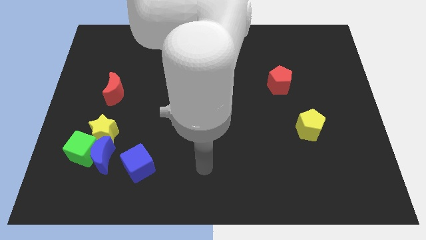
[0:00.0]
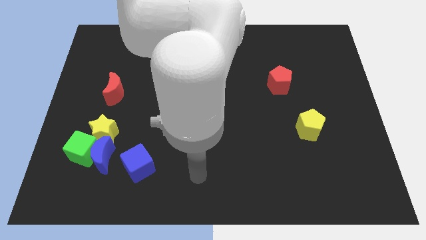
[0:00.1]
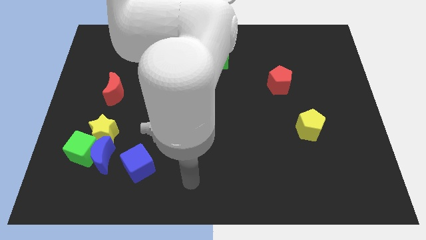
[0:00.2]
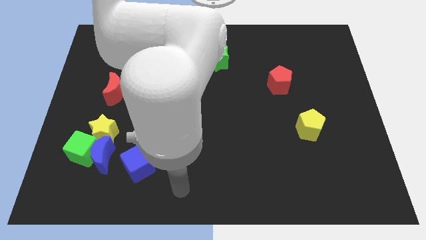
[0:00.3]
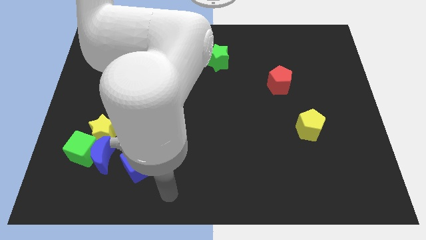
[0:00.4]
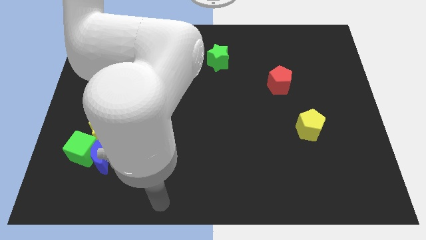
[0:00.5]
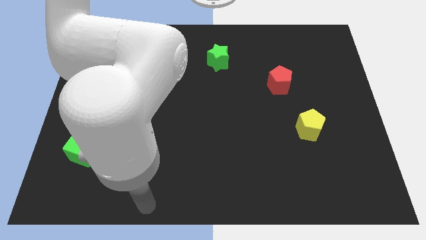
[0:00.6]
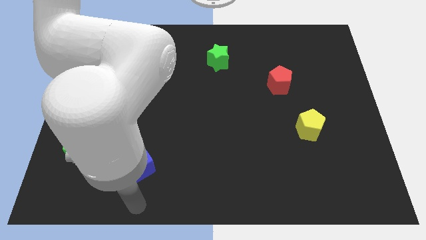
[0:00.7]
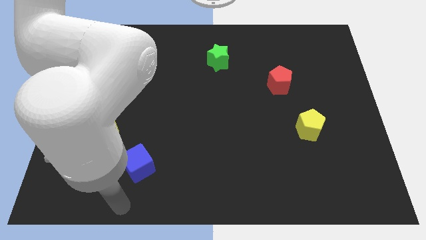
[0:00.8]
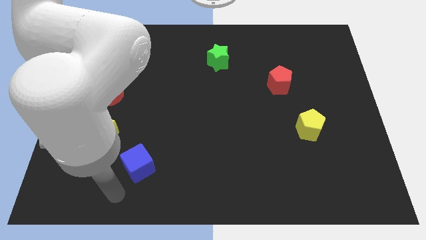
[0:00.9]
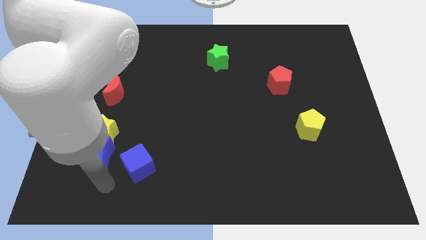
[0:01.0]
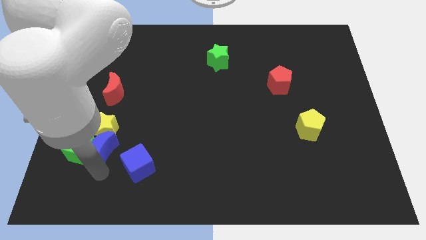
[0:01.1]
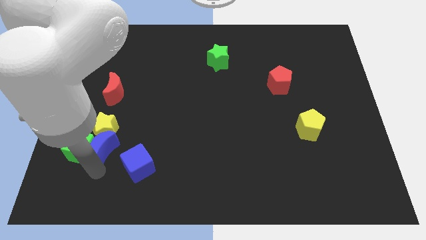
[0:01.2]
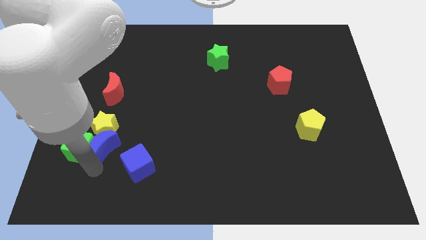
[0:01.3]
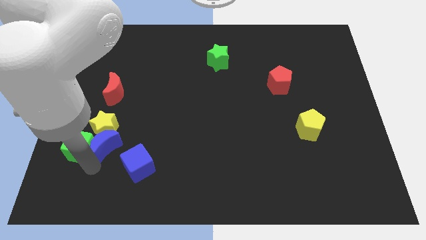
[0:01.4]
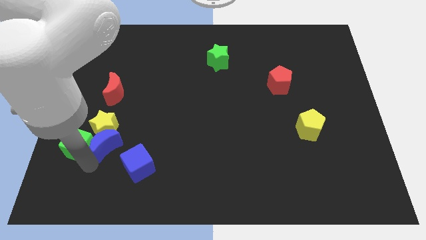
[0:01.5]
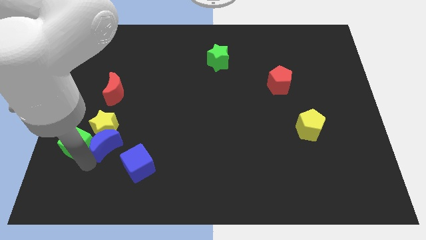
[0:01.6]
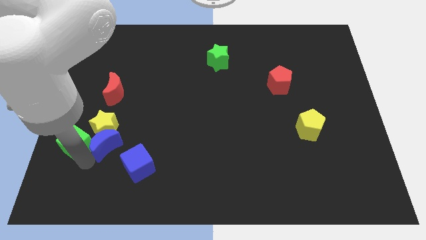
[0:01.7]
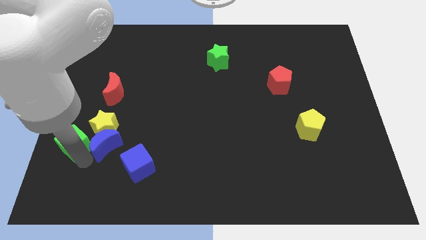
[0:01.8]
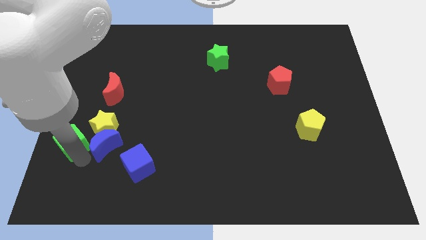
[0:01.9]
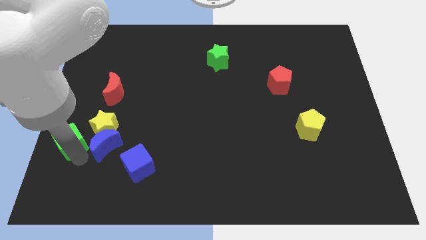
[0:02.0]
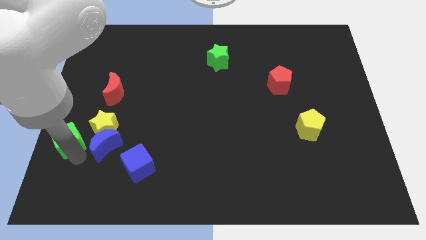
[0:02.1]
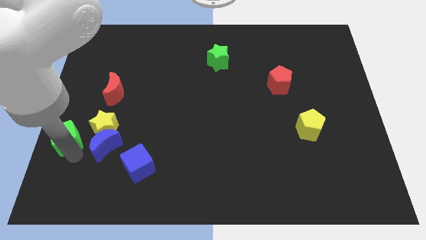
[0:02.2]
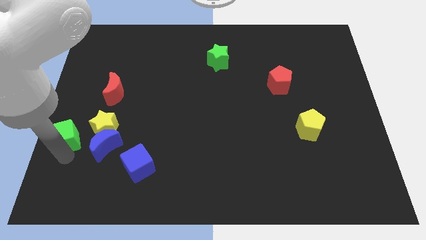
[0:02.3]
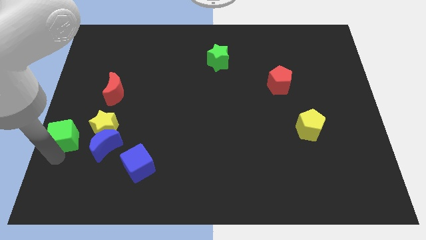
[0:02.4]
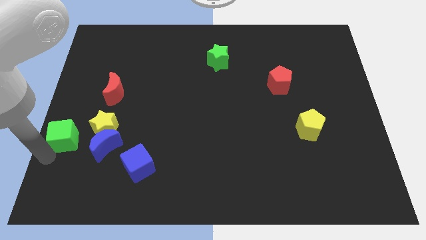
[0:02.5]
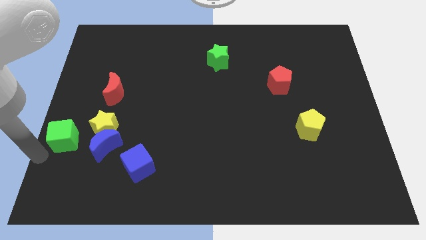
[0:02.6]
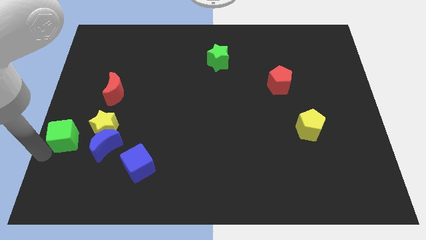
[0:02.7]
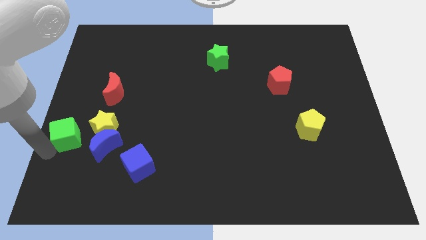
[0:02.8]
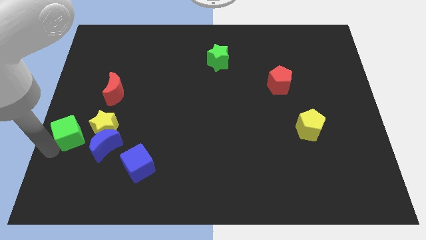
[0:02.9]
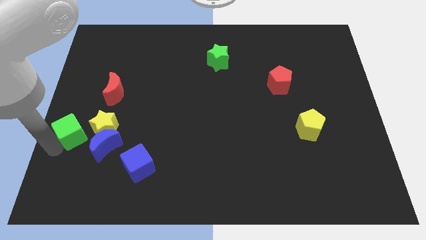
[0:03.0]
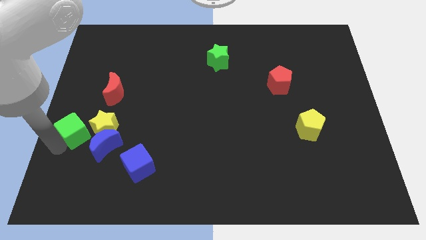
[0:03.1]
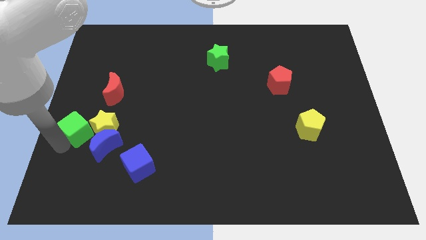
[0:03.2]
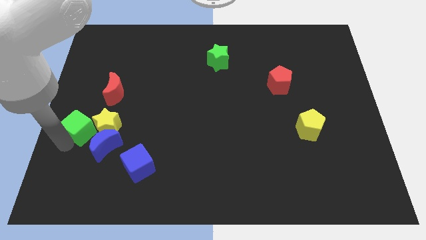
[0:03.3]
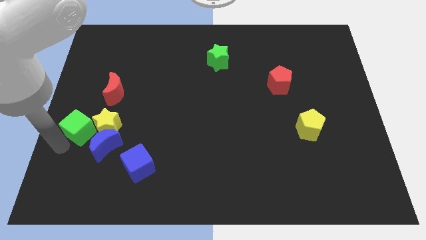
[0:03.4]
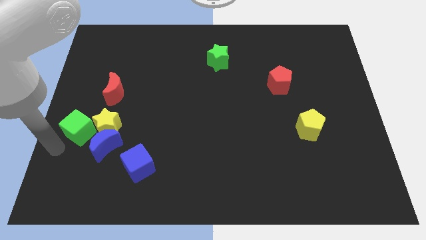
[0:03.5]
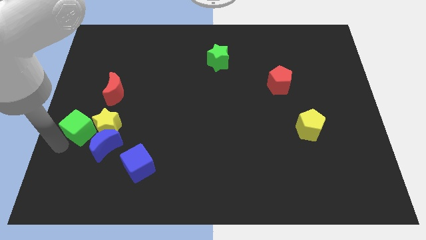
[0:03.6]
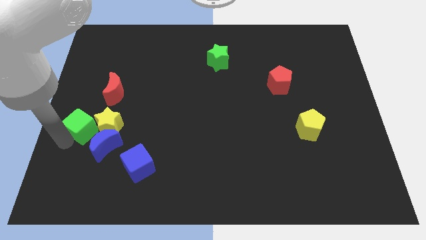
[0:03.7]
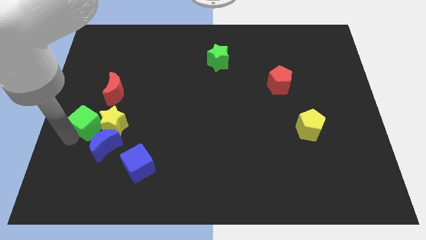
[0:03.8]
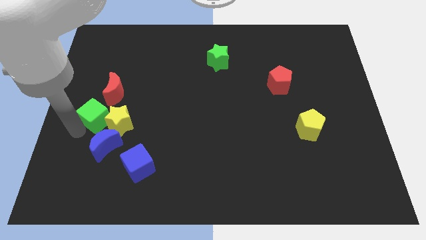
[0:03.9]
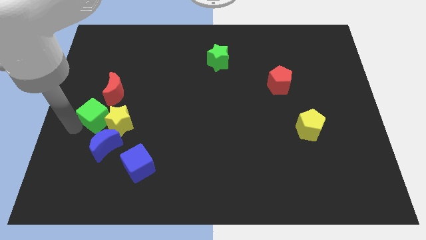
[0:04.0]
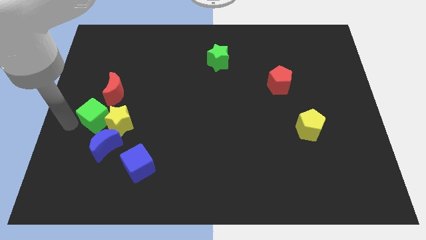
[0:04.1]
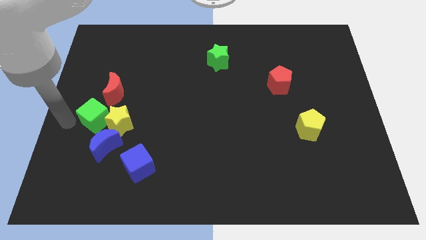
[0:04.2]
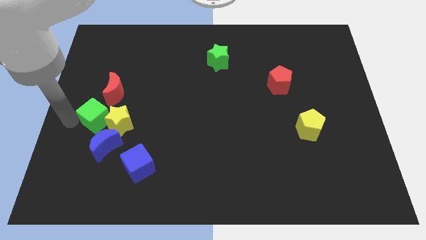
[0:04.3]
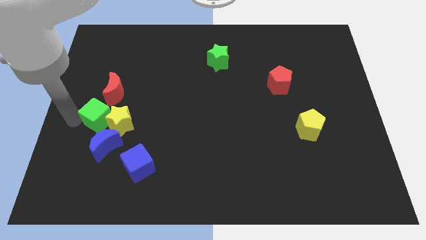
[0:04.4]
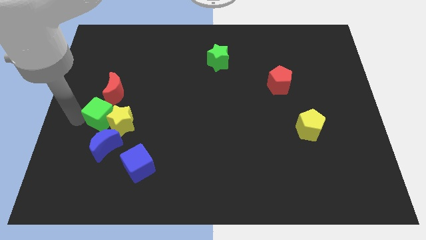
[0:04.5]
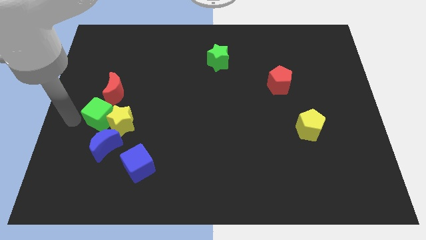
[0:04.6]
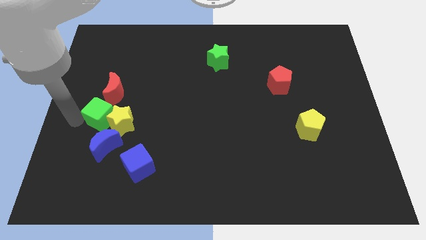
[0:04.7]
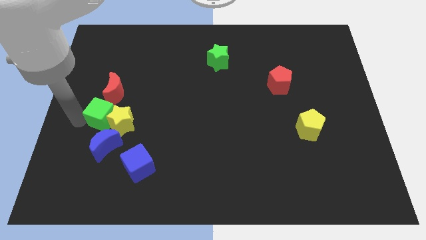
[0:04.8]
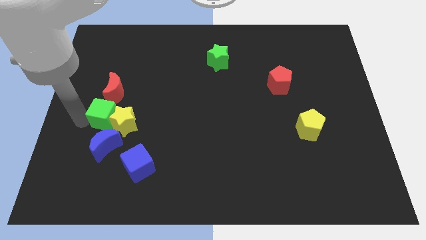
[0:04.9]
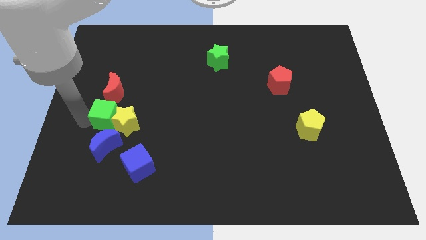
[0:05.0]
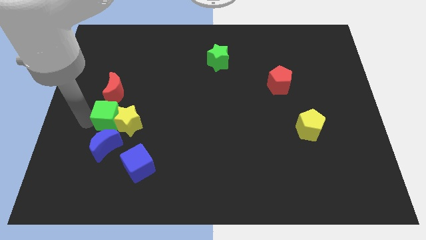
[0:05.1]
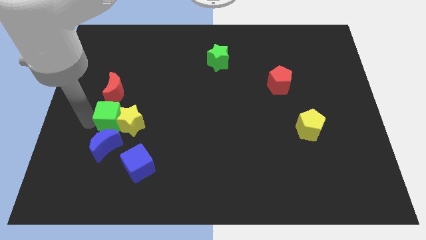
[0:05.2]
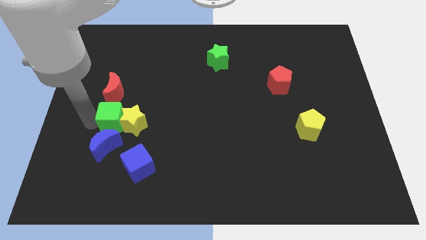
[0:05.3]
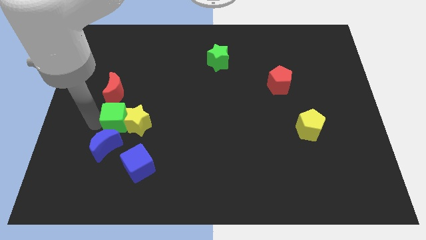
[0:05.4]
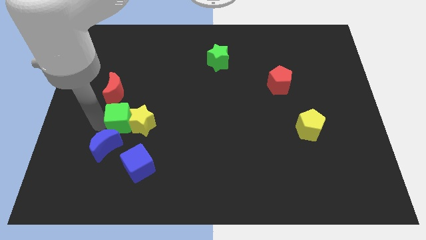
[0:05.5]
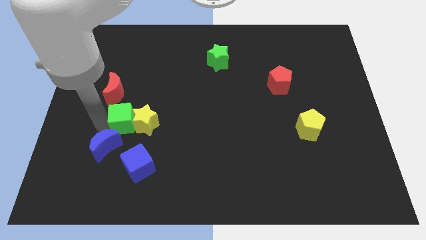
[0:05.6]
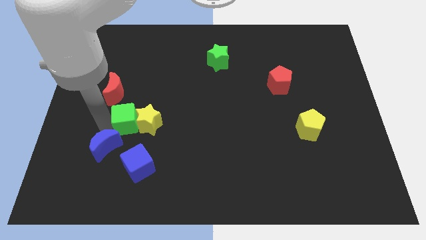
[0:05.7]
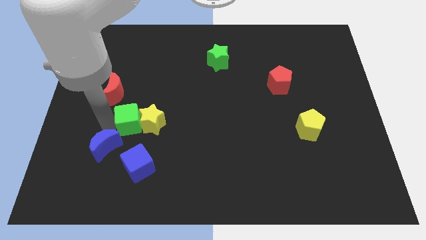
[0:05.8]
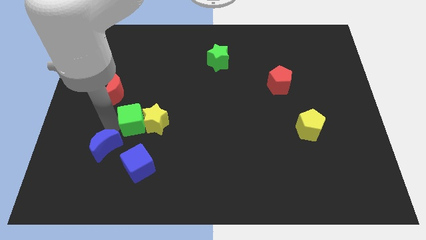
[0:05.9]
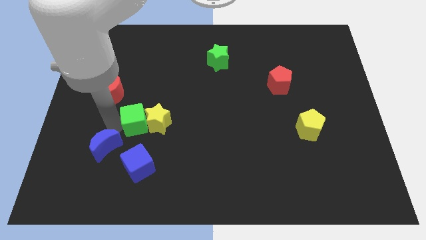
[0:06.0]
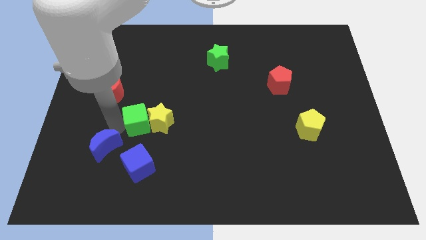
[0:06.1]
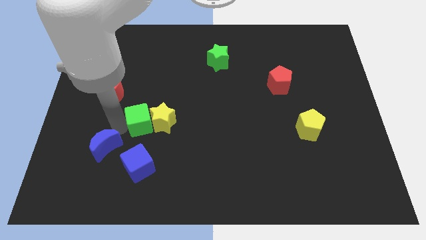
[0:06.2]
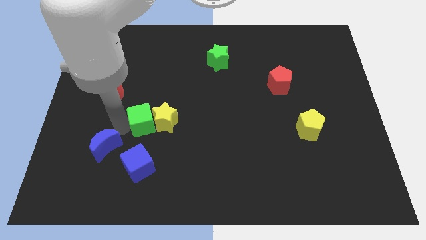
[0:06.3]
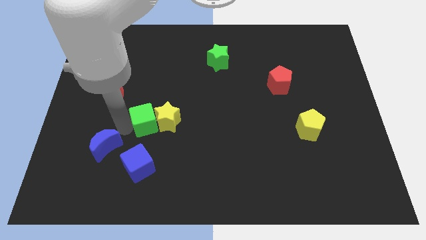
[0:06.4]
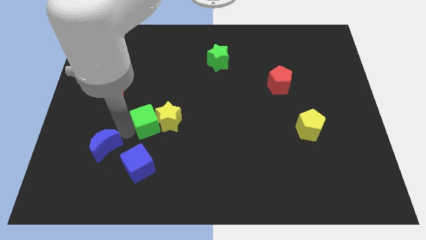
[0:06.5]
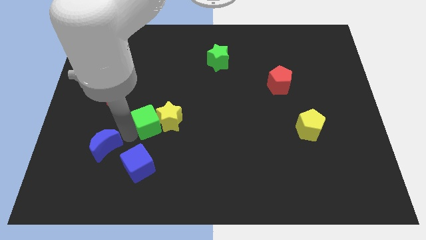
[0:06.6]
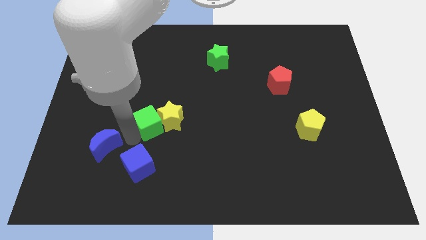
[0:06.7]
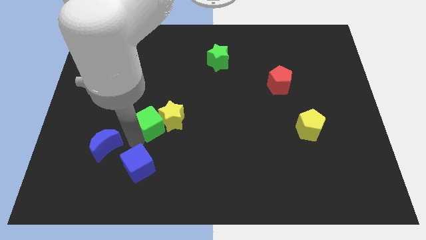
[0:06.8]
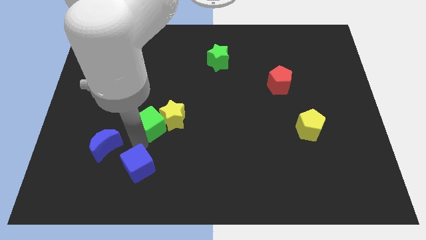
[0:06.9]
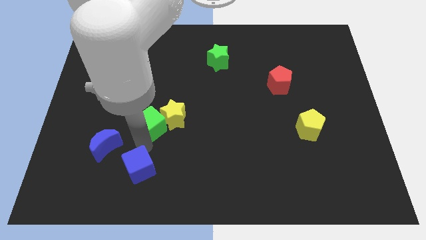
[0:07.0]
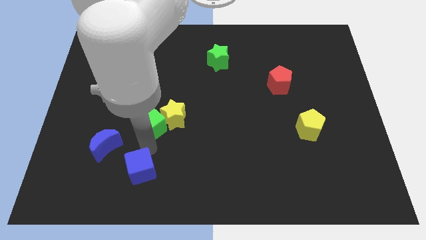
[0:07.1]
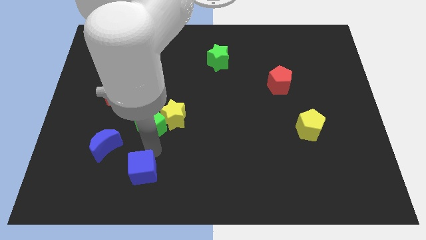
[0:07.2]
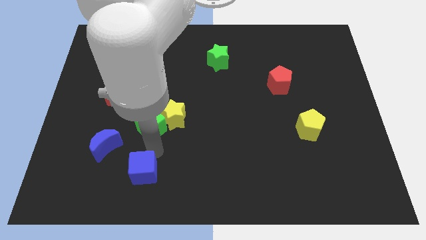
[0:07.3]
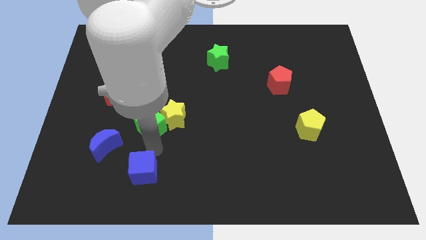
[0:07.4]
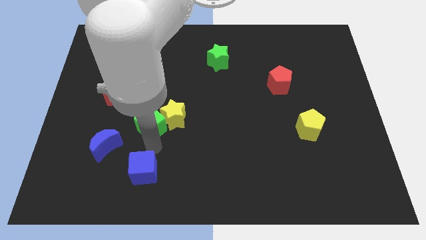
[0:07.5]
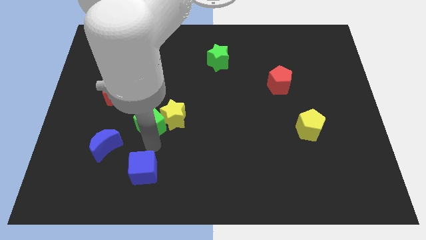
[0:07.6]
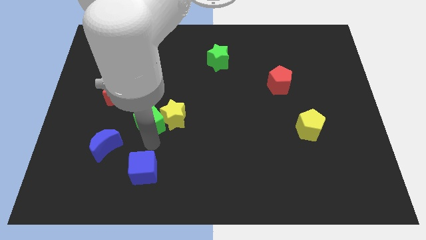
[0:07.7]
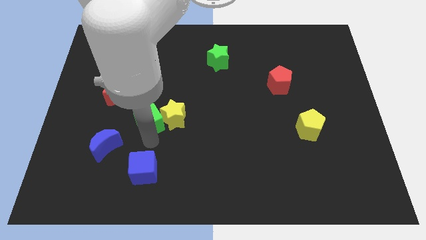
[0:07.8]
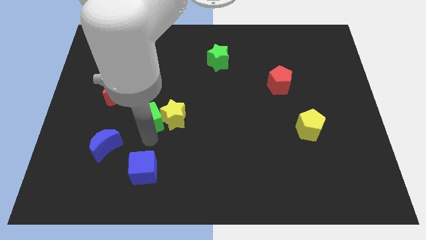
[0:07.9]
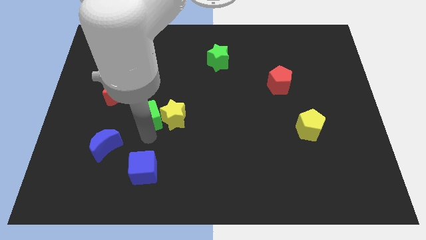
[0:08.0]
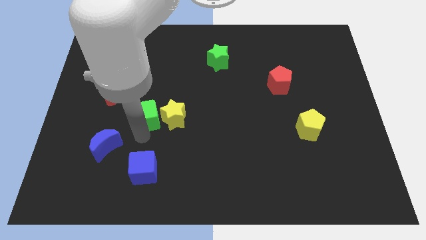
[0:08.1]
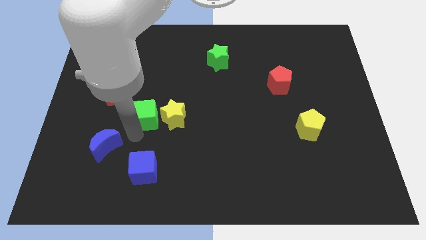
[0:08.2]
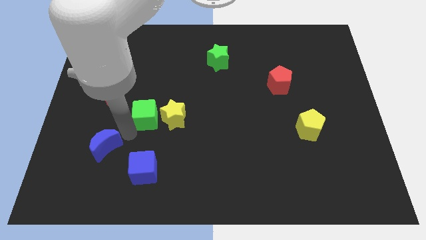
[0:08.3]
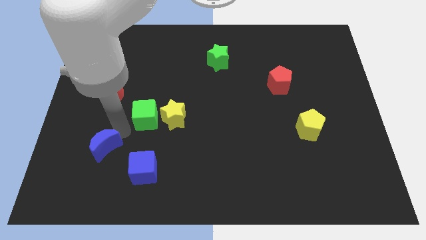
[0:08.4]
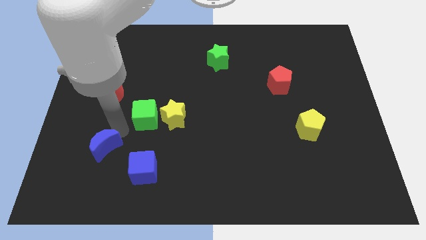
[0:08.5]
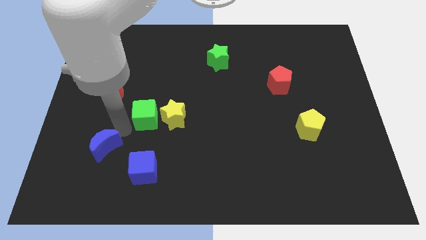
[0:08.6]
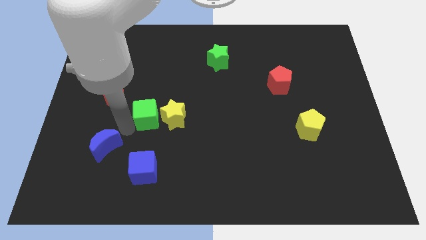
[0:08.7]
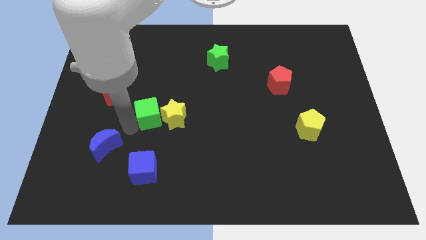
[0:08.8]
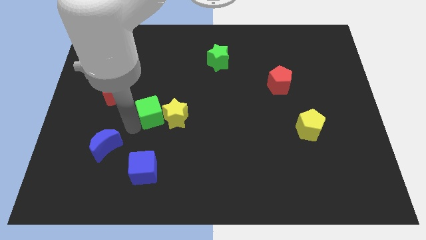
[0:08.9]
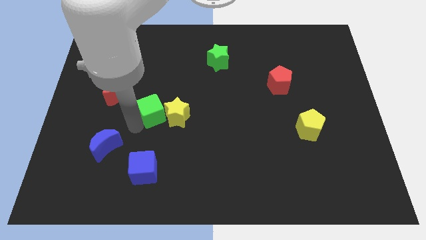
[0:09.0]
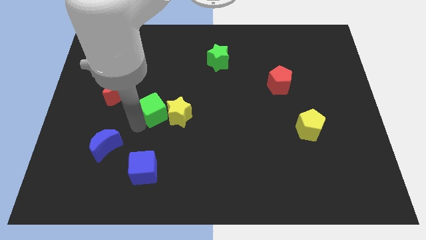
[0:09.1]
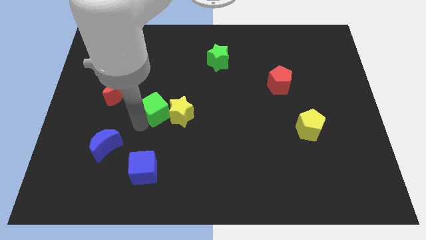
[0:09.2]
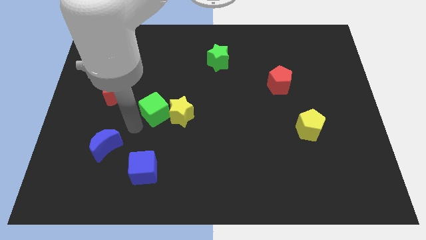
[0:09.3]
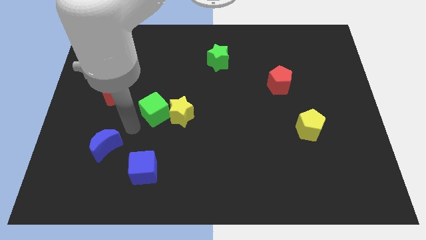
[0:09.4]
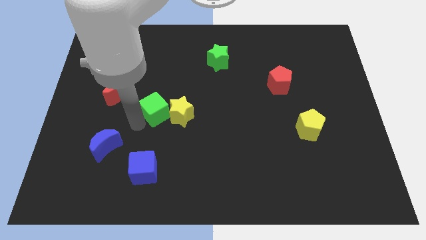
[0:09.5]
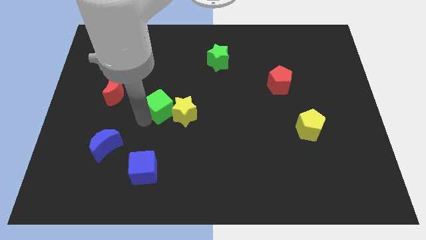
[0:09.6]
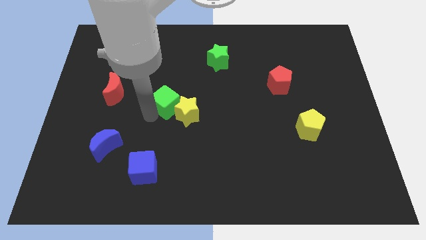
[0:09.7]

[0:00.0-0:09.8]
slide the green cube diagonally up and right
